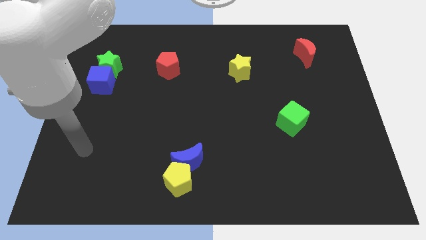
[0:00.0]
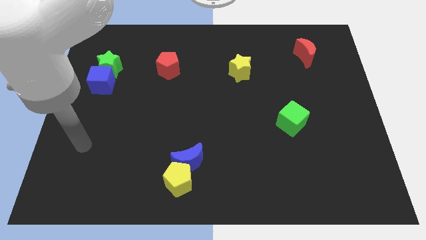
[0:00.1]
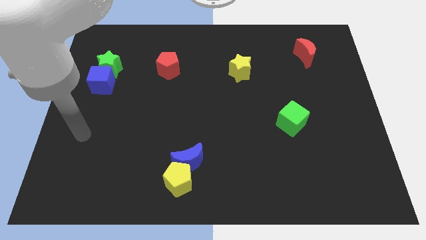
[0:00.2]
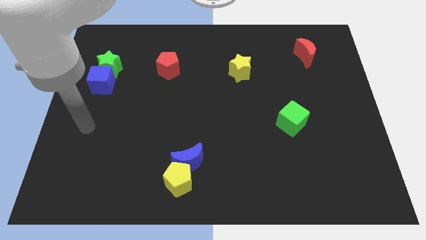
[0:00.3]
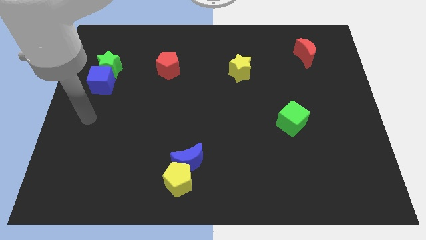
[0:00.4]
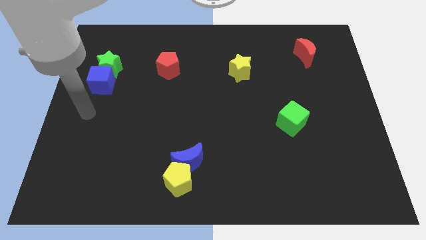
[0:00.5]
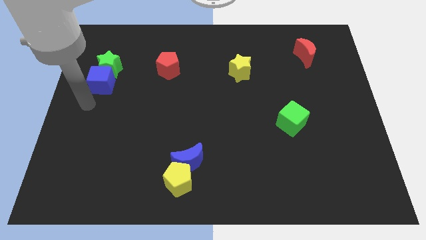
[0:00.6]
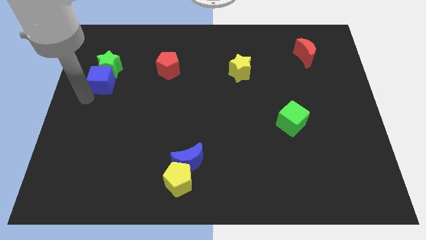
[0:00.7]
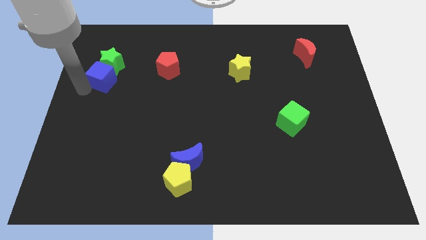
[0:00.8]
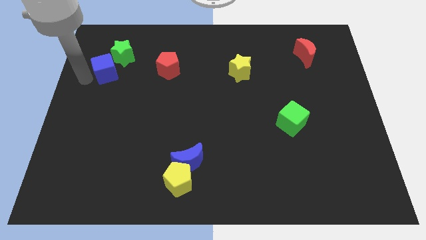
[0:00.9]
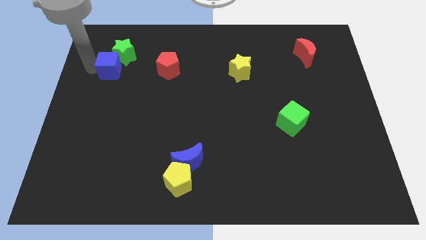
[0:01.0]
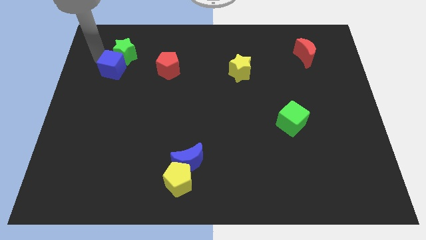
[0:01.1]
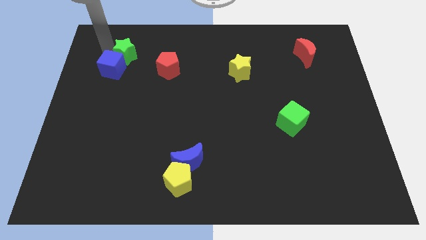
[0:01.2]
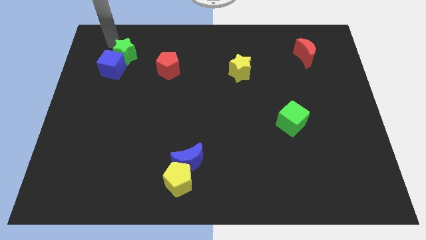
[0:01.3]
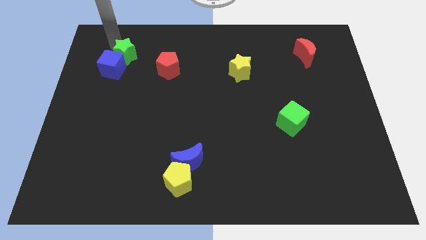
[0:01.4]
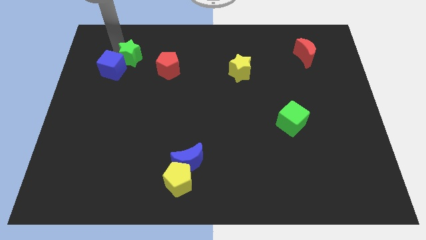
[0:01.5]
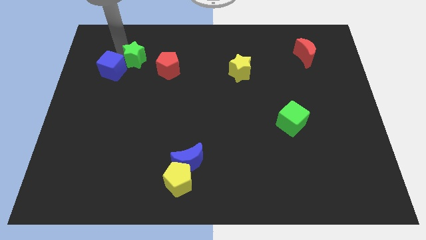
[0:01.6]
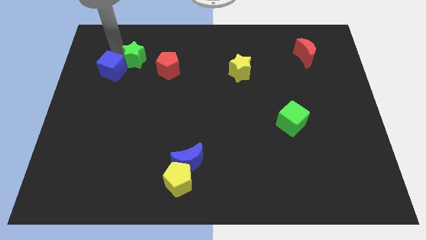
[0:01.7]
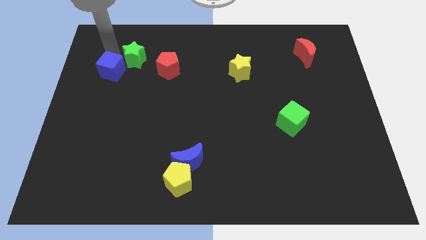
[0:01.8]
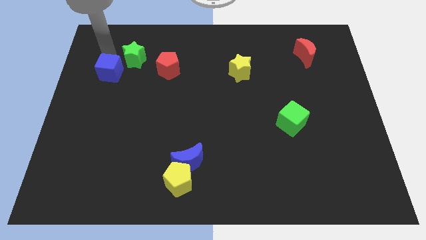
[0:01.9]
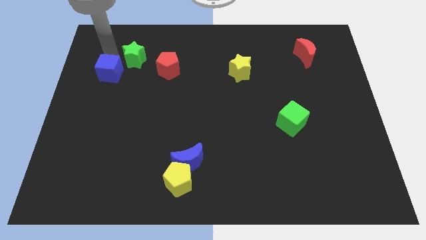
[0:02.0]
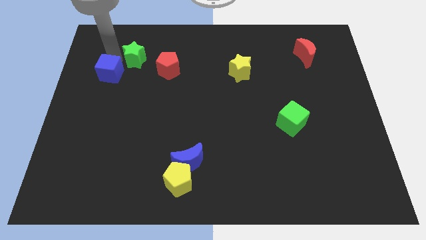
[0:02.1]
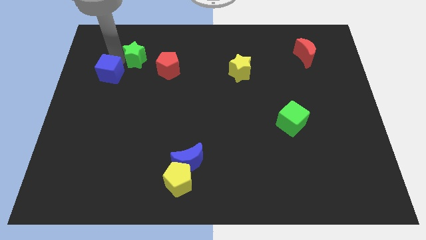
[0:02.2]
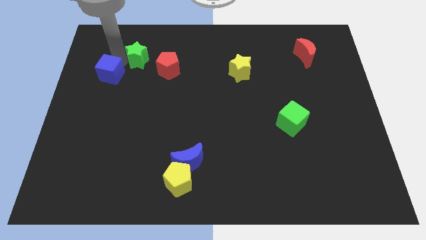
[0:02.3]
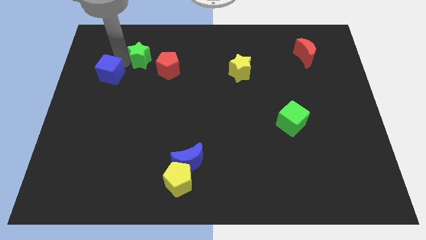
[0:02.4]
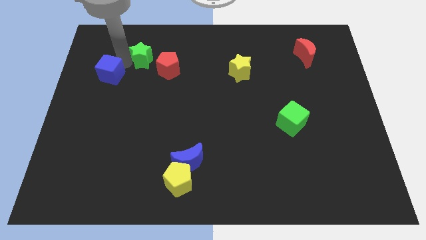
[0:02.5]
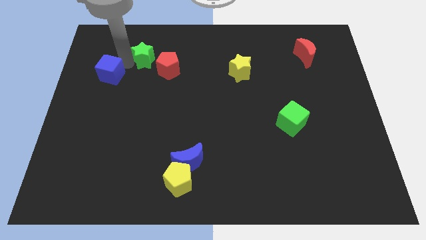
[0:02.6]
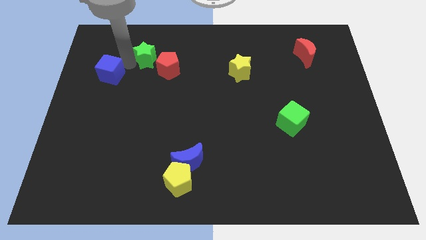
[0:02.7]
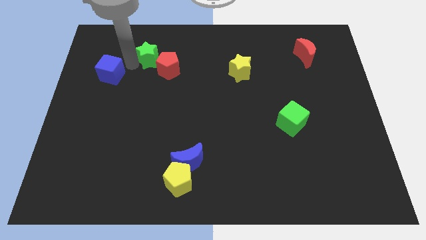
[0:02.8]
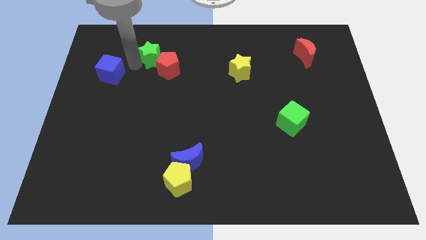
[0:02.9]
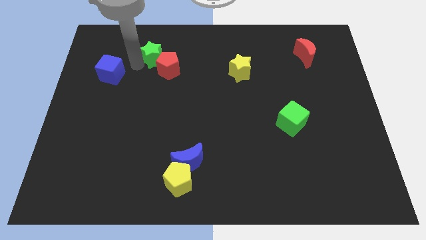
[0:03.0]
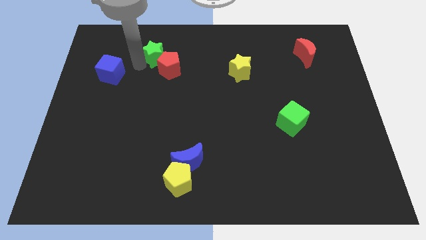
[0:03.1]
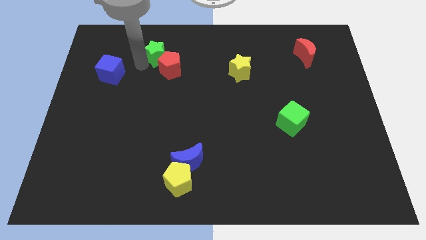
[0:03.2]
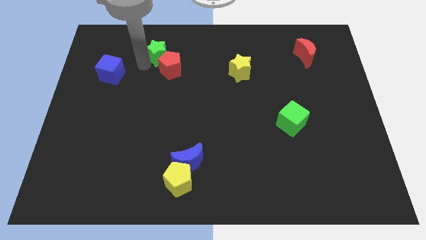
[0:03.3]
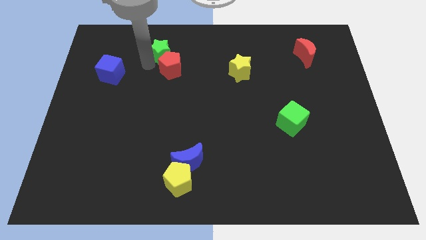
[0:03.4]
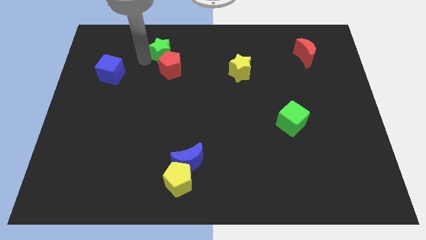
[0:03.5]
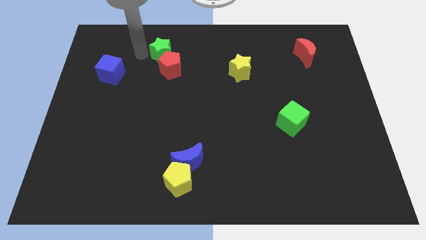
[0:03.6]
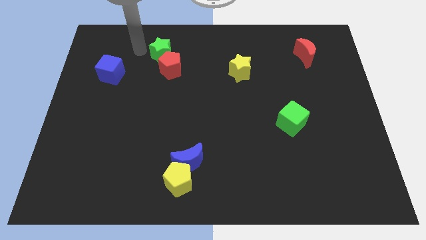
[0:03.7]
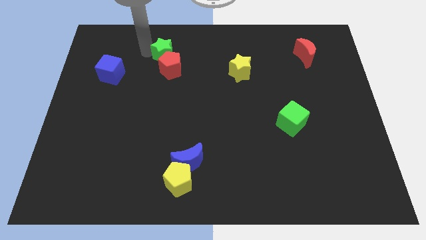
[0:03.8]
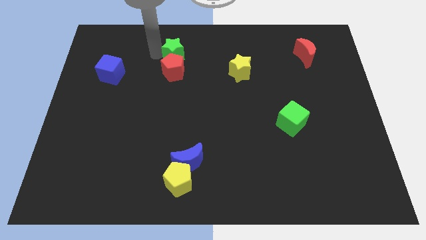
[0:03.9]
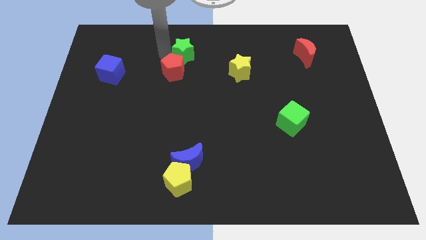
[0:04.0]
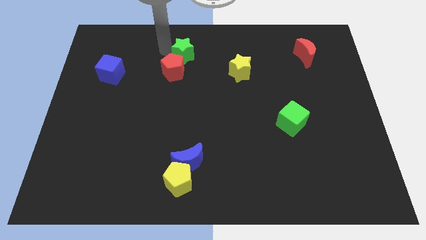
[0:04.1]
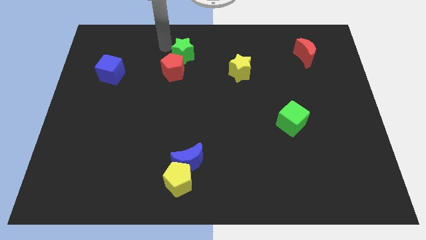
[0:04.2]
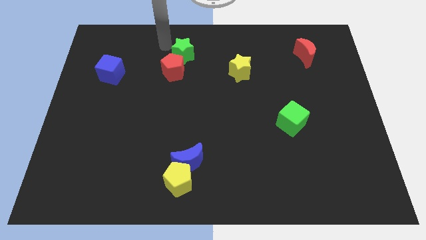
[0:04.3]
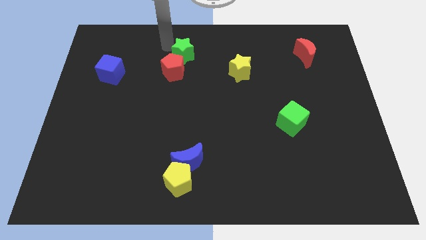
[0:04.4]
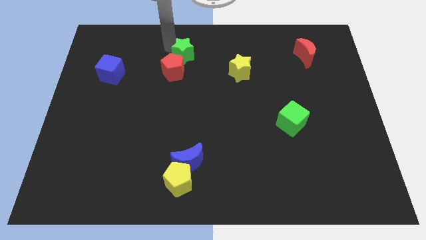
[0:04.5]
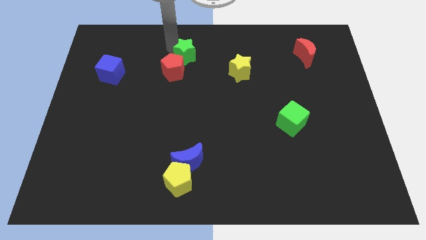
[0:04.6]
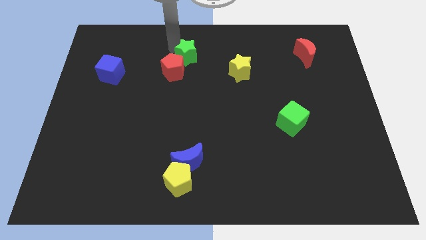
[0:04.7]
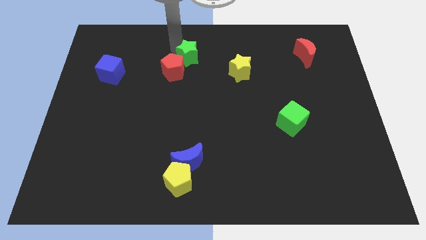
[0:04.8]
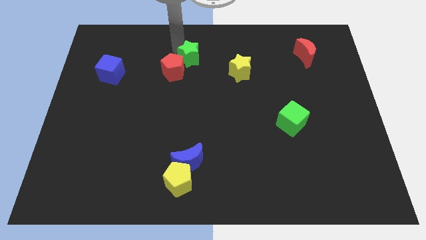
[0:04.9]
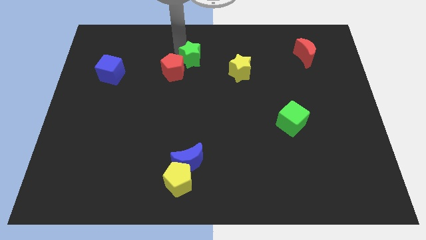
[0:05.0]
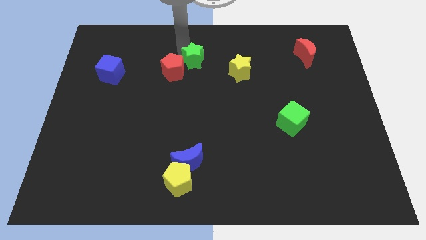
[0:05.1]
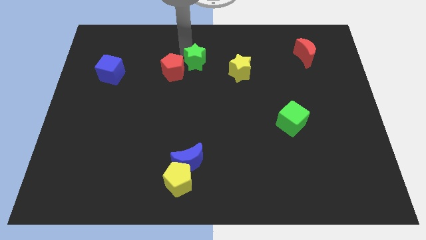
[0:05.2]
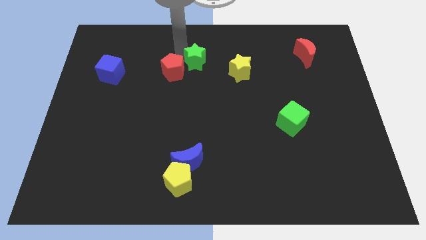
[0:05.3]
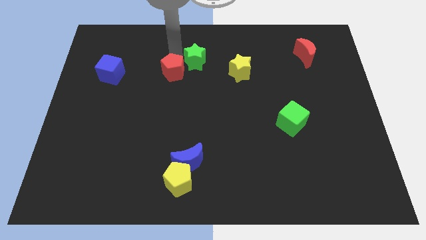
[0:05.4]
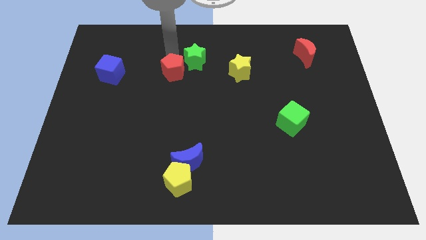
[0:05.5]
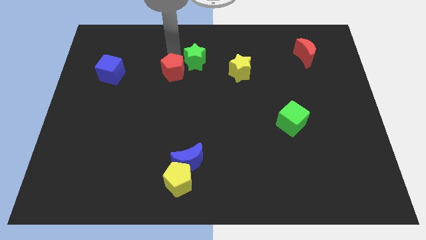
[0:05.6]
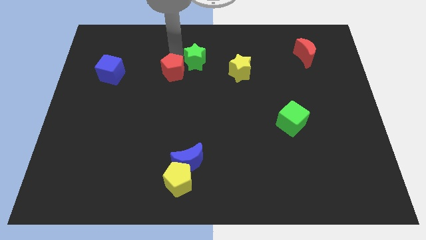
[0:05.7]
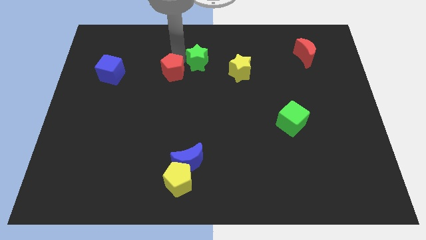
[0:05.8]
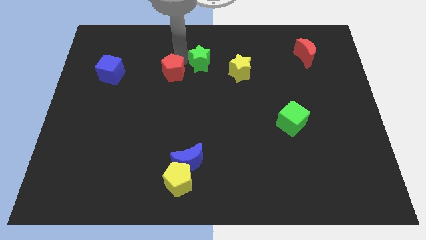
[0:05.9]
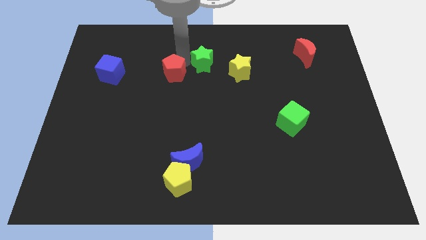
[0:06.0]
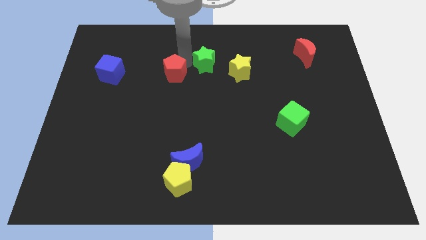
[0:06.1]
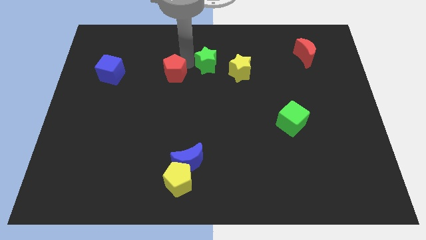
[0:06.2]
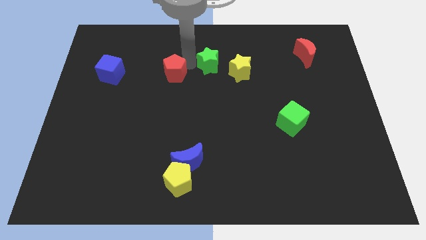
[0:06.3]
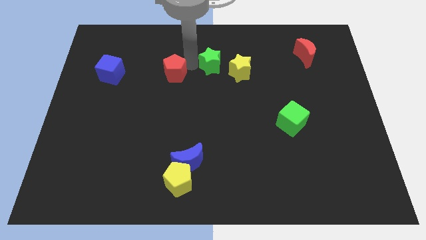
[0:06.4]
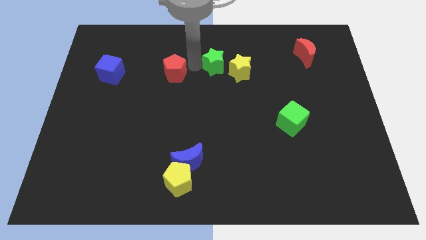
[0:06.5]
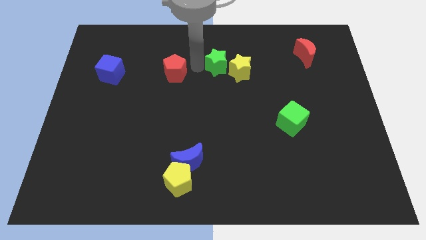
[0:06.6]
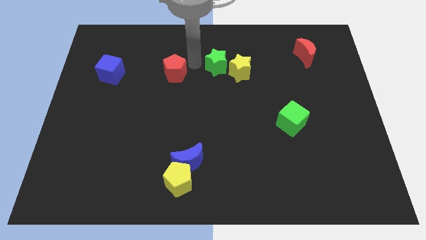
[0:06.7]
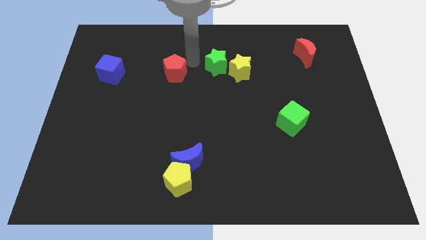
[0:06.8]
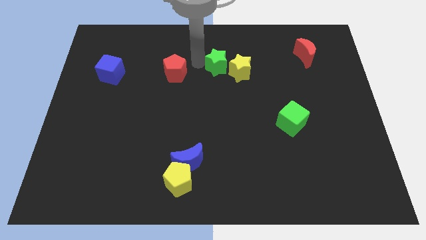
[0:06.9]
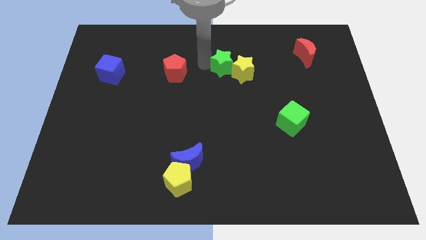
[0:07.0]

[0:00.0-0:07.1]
put the green star towards the yellow star

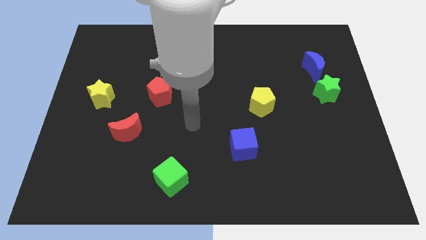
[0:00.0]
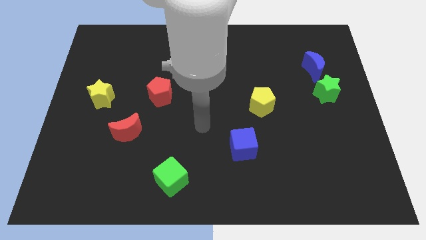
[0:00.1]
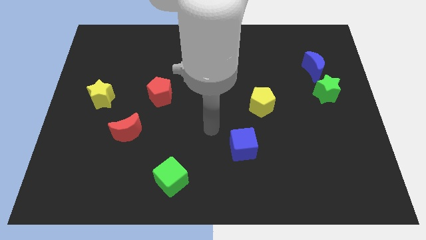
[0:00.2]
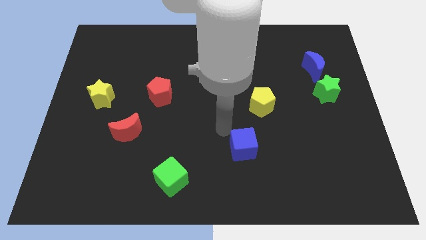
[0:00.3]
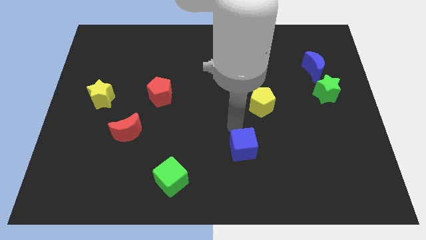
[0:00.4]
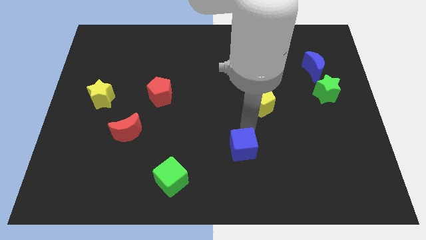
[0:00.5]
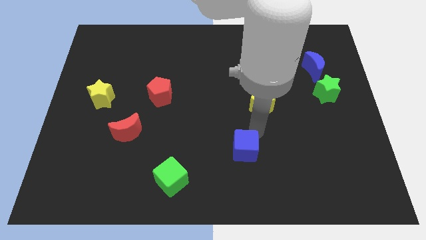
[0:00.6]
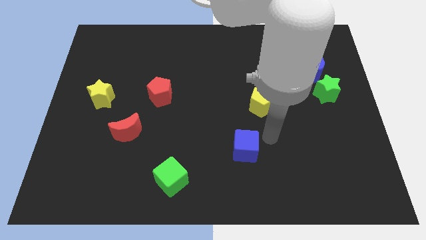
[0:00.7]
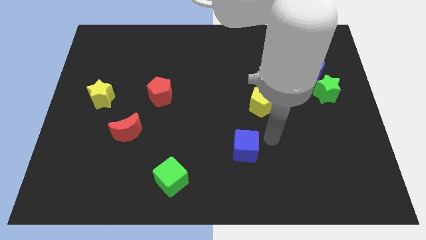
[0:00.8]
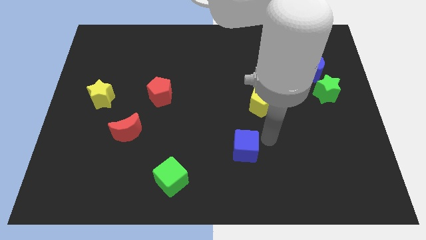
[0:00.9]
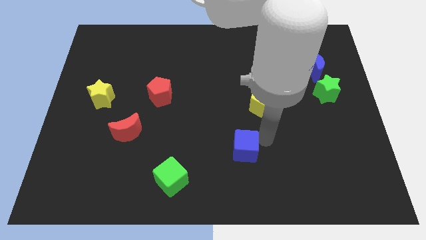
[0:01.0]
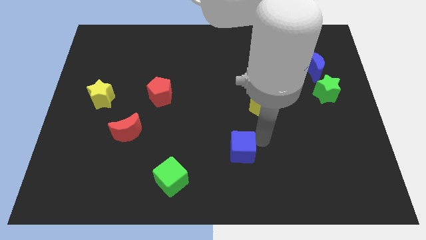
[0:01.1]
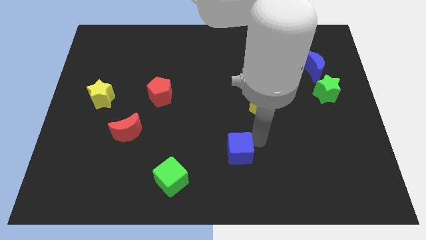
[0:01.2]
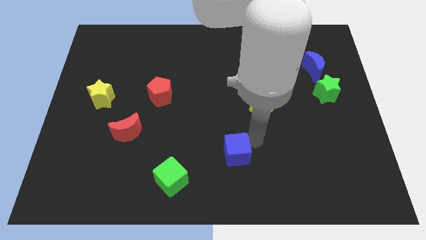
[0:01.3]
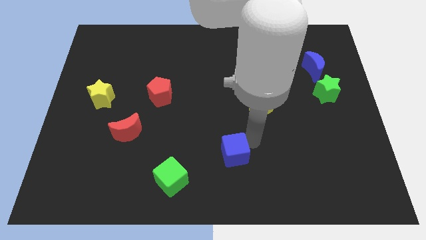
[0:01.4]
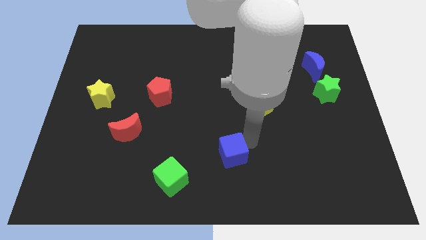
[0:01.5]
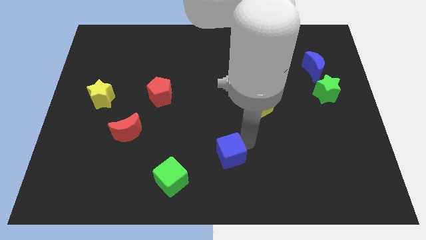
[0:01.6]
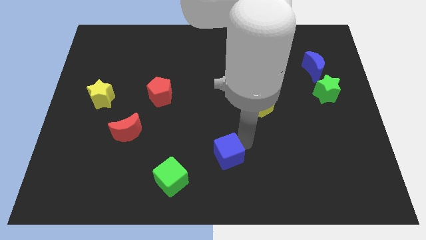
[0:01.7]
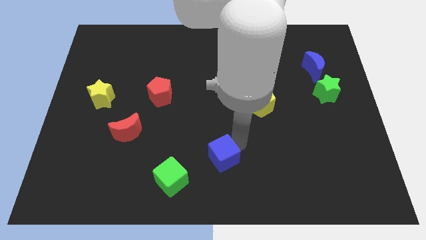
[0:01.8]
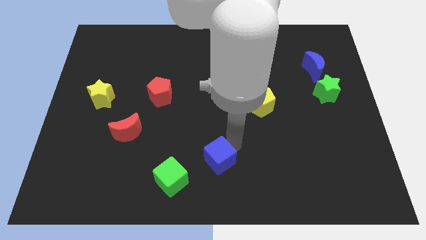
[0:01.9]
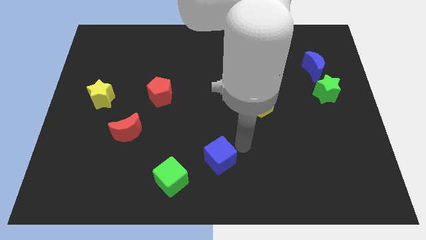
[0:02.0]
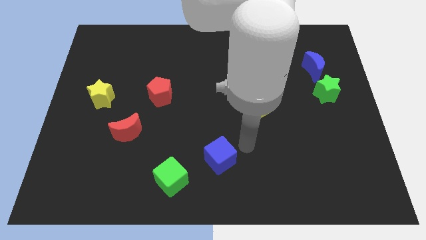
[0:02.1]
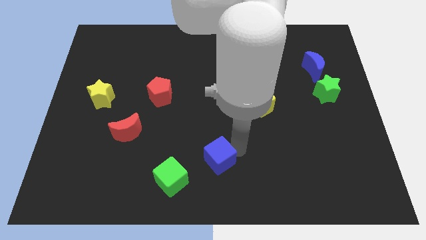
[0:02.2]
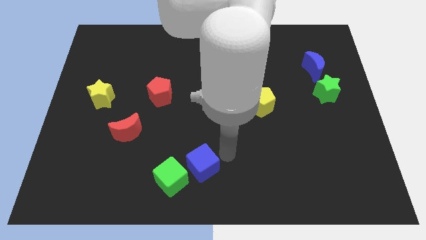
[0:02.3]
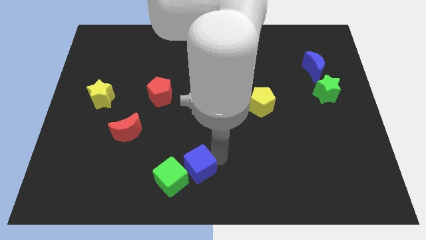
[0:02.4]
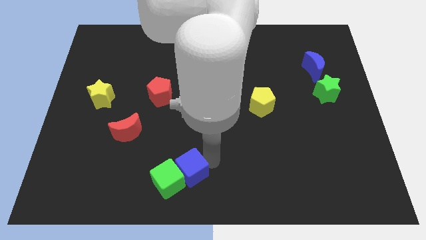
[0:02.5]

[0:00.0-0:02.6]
push the blue cube close to the green cube
